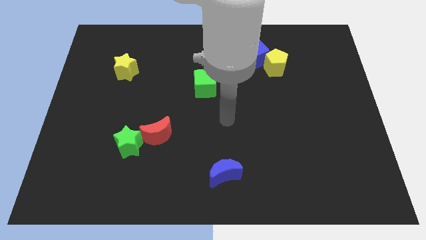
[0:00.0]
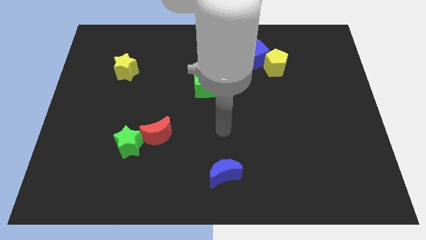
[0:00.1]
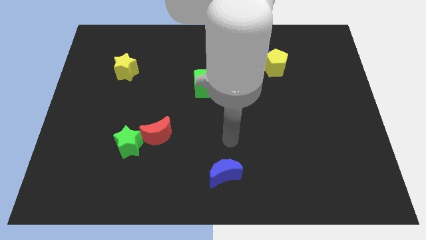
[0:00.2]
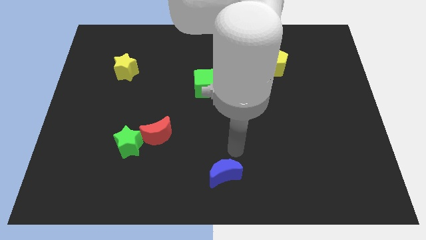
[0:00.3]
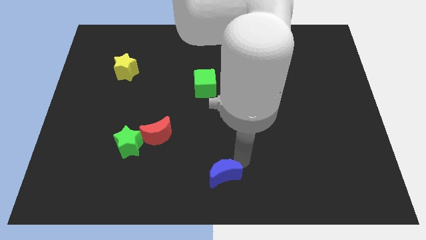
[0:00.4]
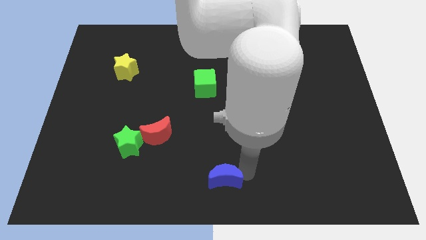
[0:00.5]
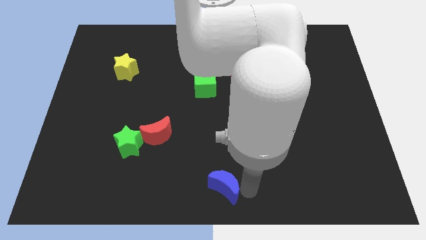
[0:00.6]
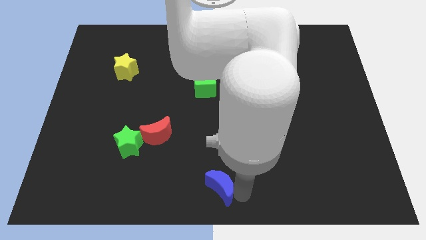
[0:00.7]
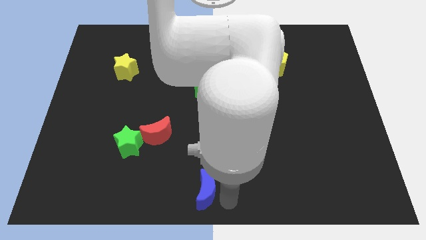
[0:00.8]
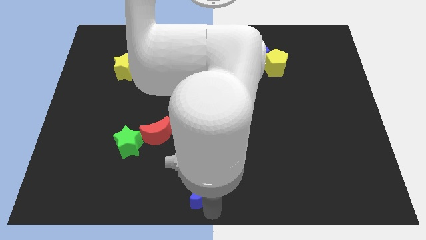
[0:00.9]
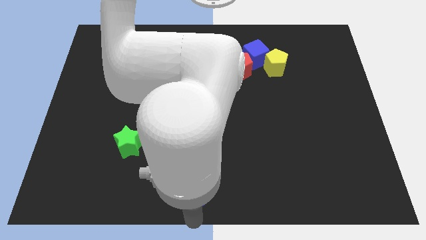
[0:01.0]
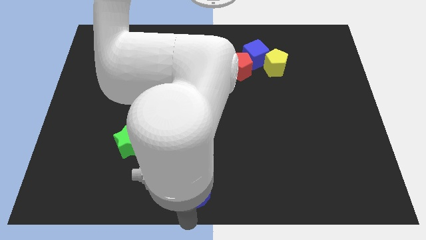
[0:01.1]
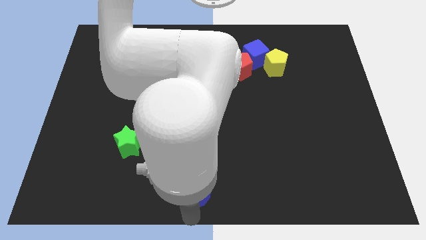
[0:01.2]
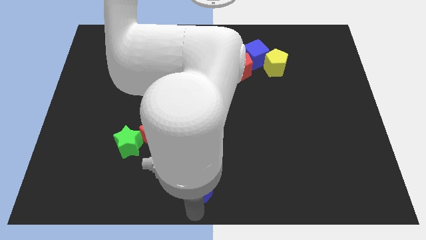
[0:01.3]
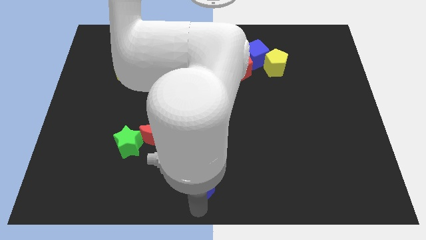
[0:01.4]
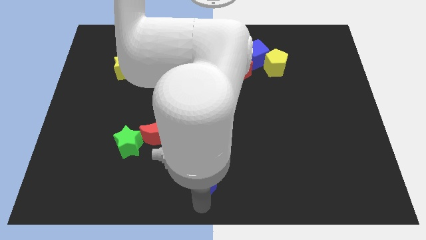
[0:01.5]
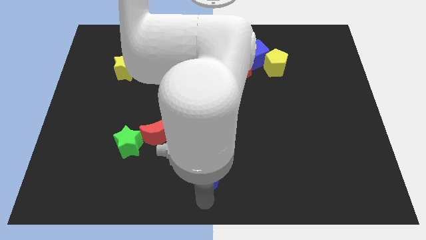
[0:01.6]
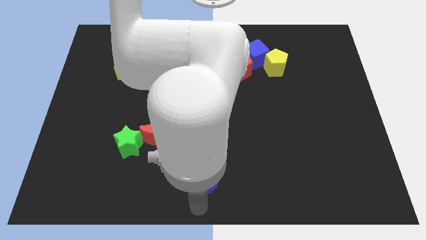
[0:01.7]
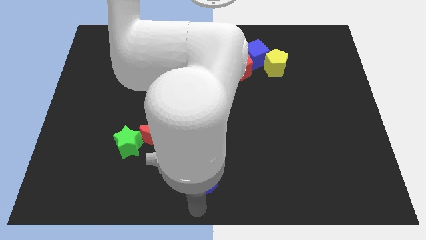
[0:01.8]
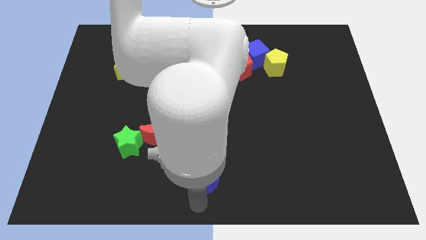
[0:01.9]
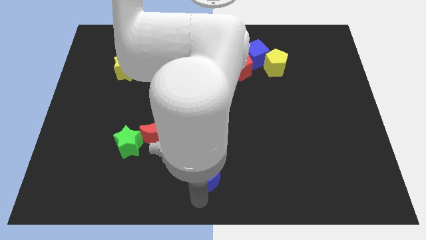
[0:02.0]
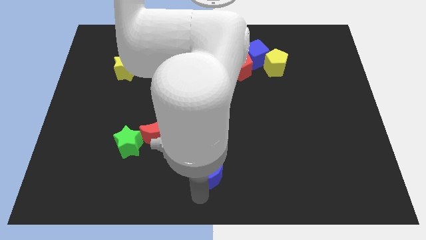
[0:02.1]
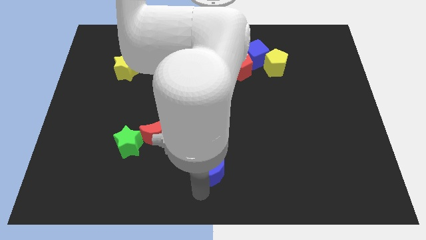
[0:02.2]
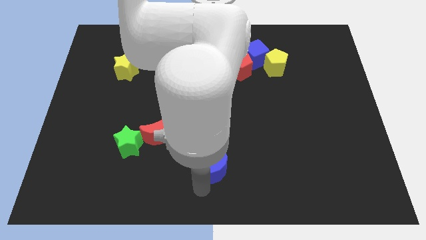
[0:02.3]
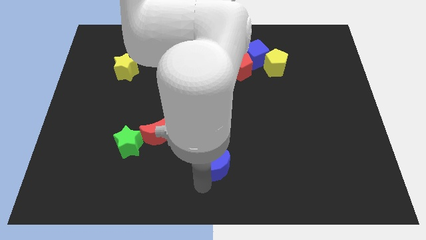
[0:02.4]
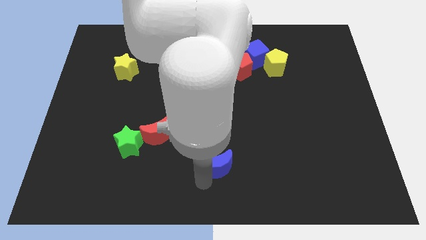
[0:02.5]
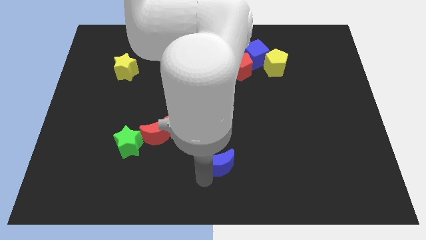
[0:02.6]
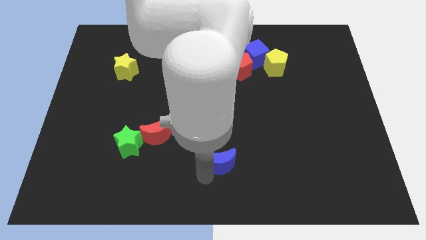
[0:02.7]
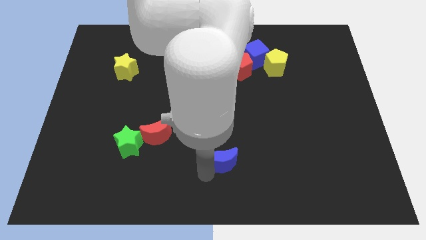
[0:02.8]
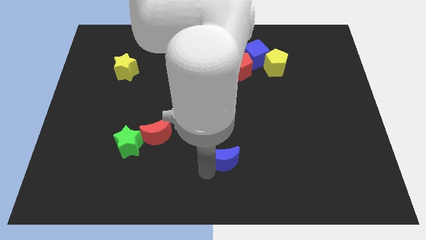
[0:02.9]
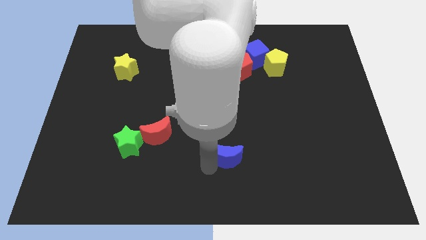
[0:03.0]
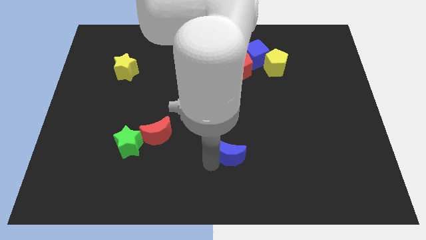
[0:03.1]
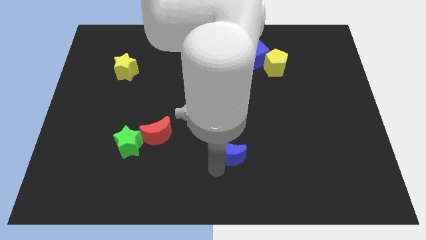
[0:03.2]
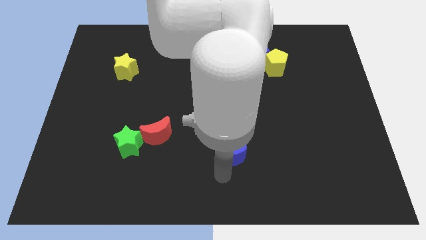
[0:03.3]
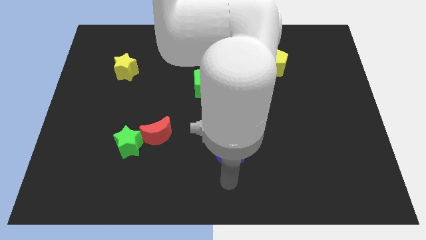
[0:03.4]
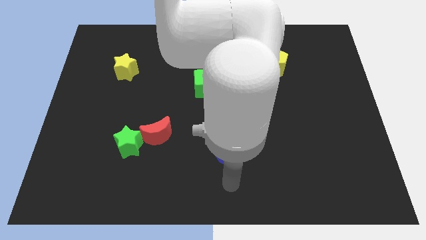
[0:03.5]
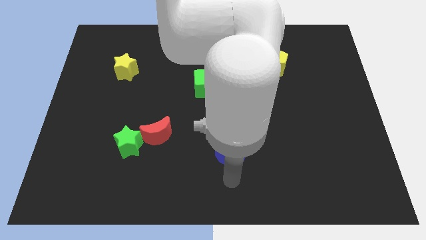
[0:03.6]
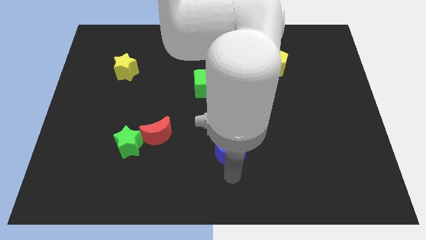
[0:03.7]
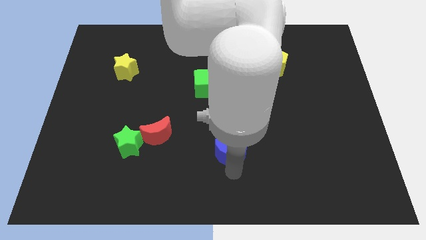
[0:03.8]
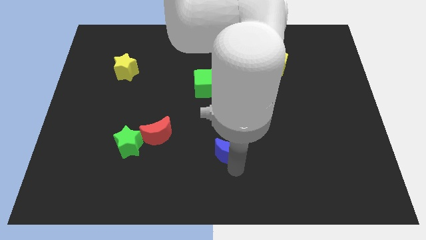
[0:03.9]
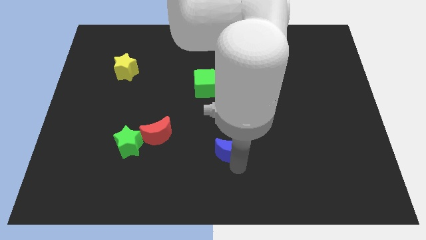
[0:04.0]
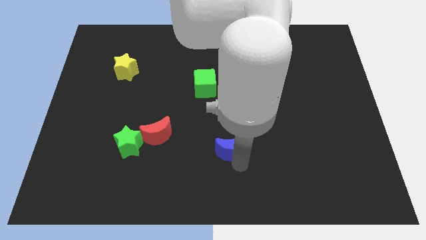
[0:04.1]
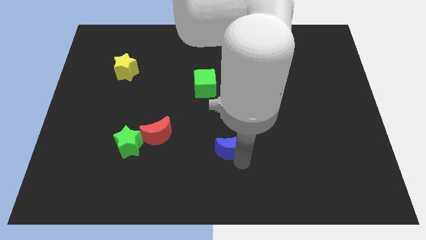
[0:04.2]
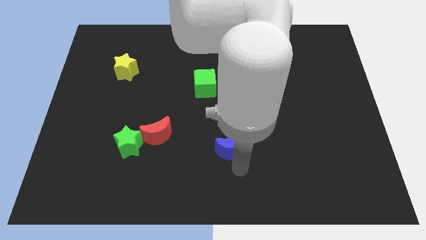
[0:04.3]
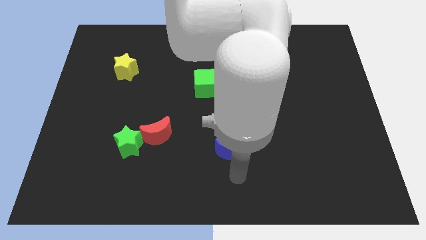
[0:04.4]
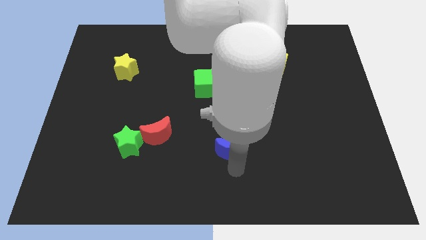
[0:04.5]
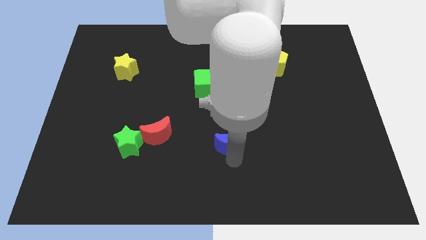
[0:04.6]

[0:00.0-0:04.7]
push the blue moon a little bit upwards

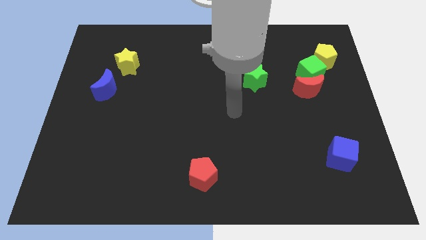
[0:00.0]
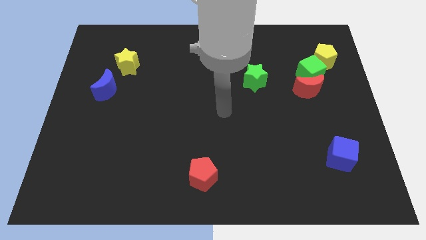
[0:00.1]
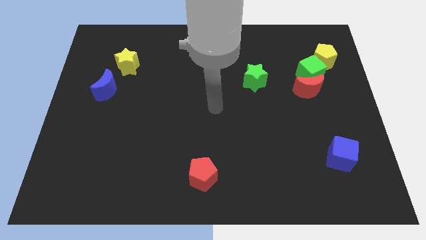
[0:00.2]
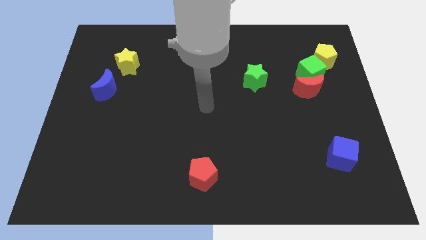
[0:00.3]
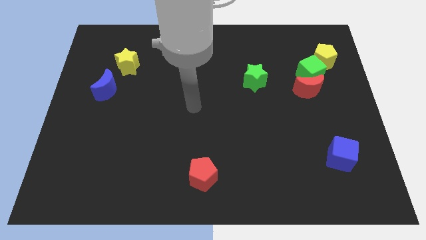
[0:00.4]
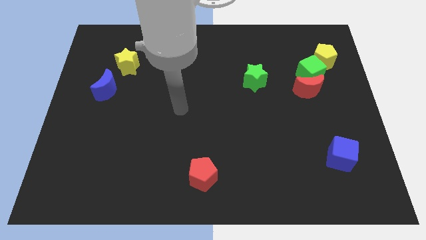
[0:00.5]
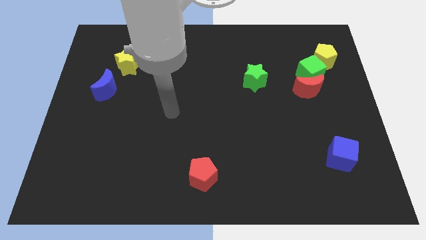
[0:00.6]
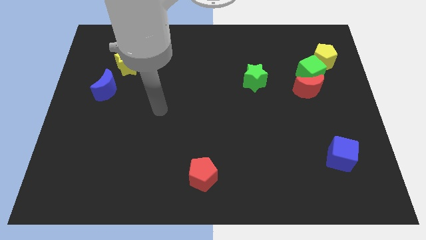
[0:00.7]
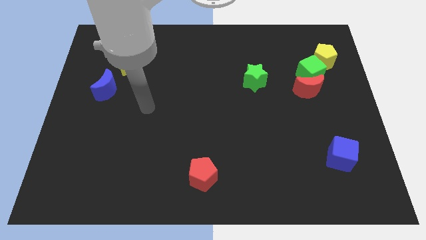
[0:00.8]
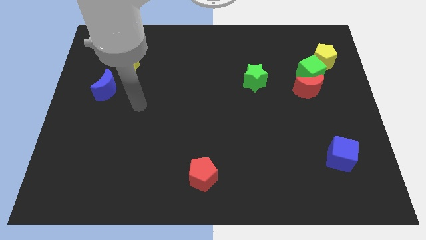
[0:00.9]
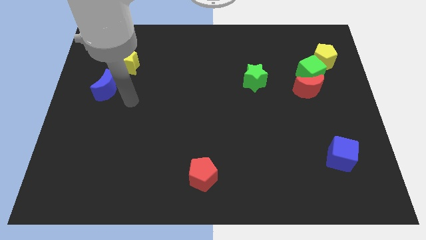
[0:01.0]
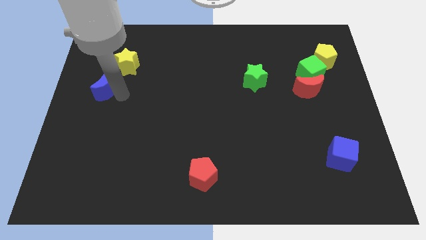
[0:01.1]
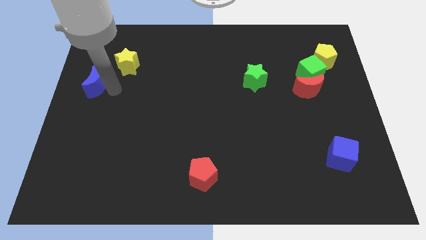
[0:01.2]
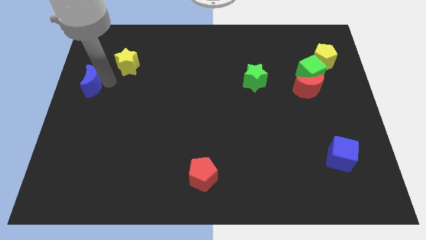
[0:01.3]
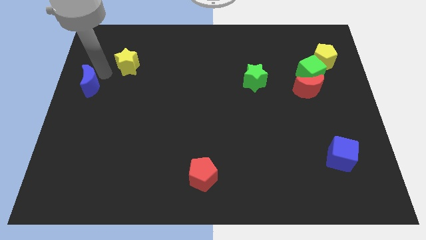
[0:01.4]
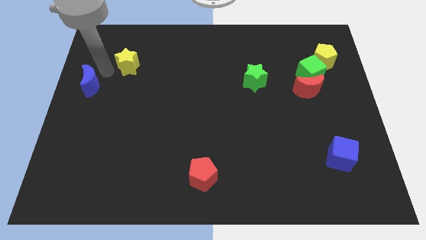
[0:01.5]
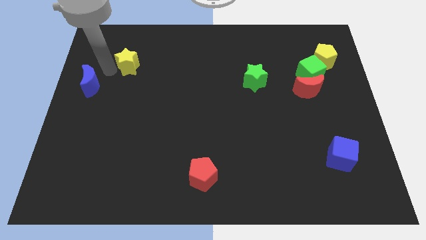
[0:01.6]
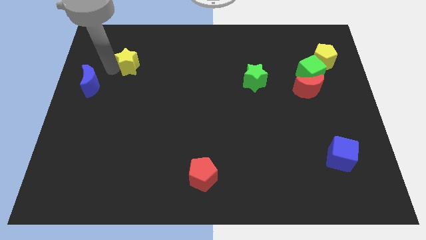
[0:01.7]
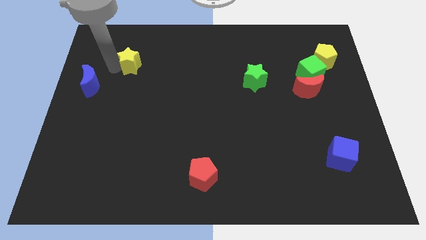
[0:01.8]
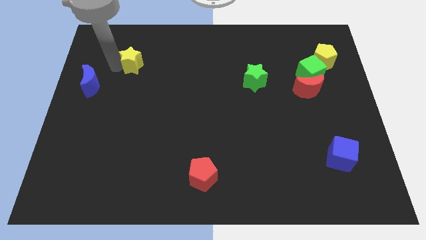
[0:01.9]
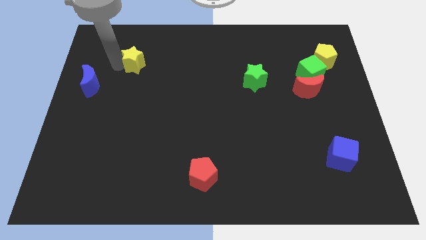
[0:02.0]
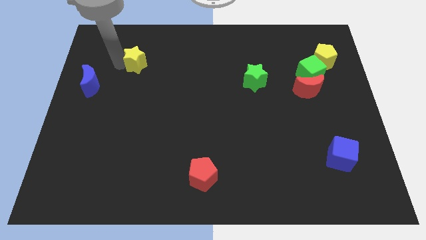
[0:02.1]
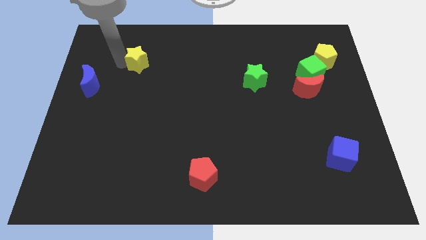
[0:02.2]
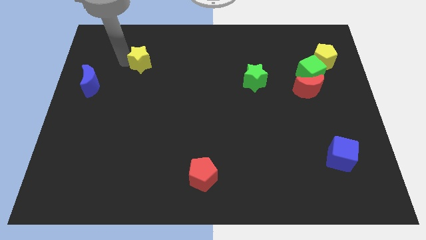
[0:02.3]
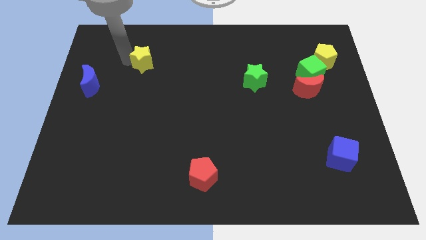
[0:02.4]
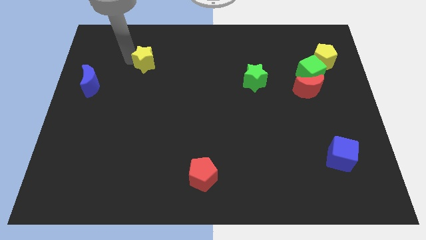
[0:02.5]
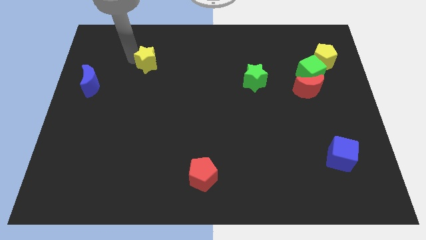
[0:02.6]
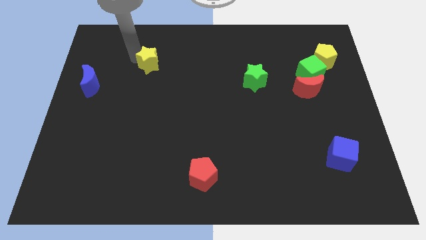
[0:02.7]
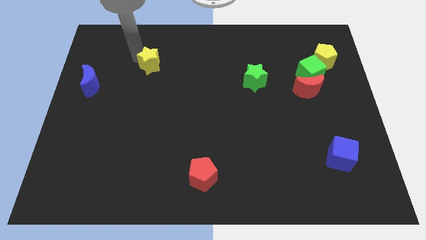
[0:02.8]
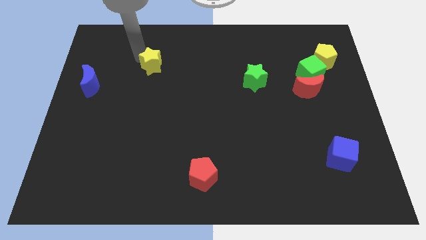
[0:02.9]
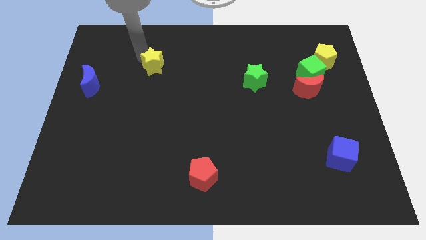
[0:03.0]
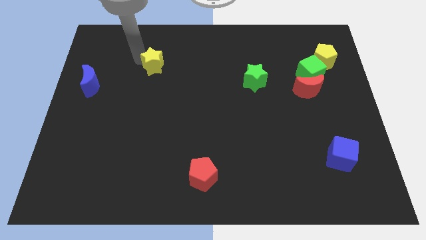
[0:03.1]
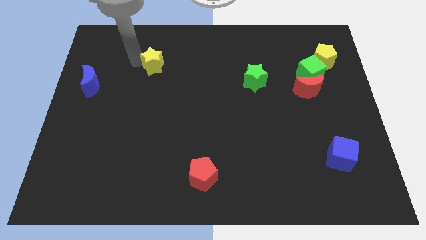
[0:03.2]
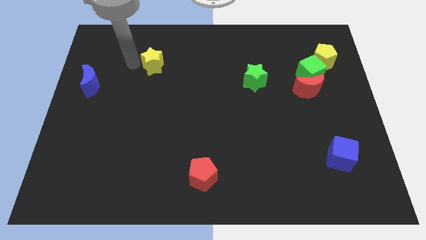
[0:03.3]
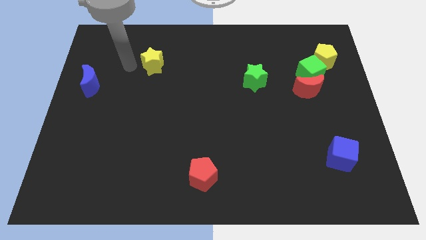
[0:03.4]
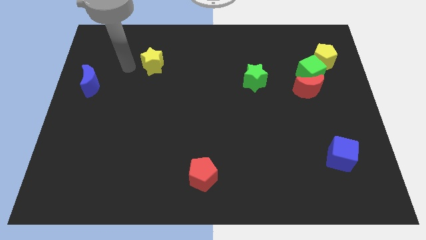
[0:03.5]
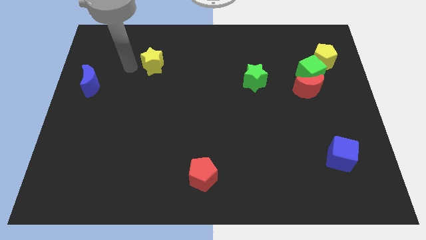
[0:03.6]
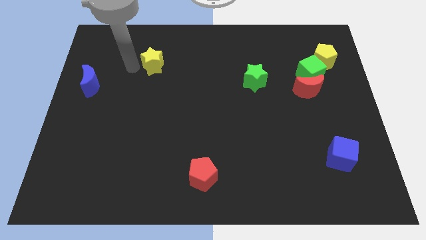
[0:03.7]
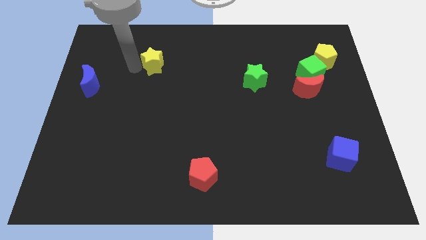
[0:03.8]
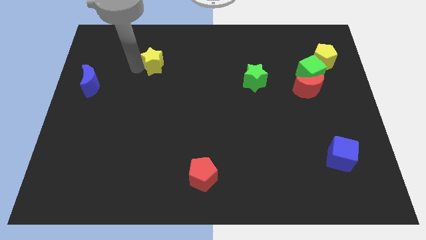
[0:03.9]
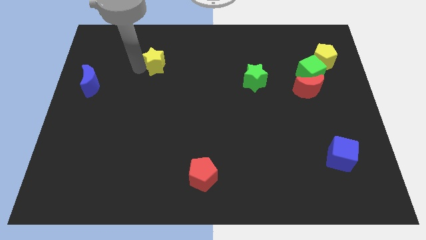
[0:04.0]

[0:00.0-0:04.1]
move the yellow star to the right slightly
